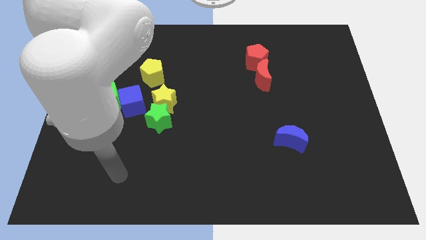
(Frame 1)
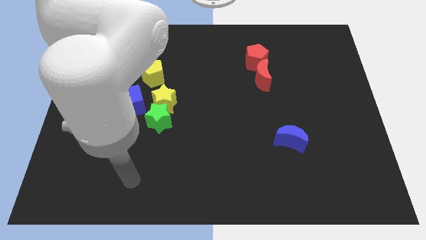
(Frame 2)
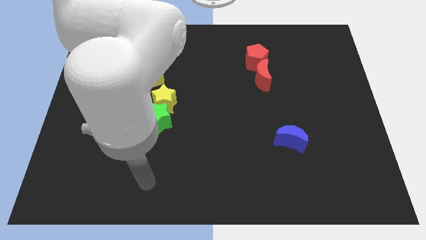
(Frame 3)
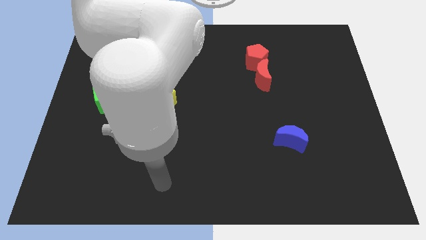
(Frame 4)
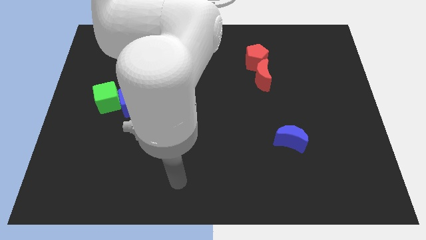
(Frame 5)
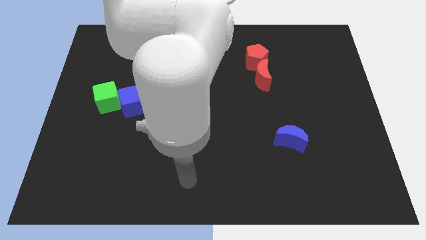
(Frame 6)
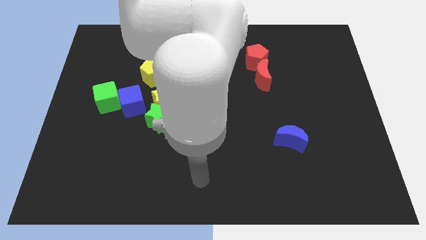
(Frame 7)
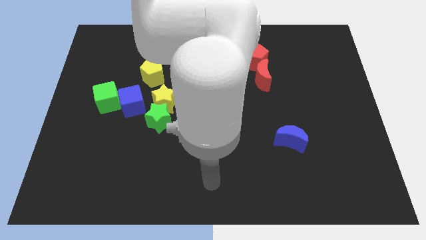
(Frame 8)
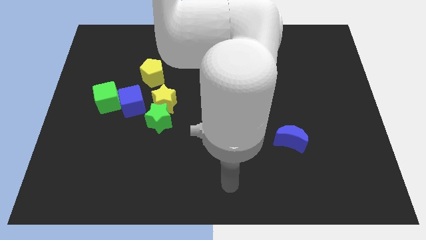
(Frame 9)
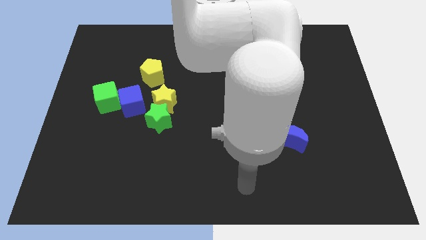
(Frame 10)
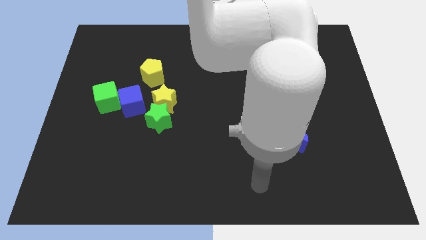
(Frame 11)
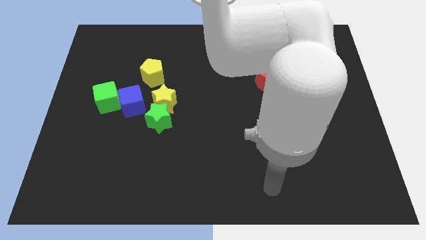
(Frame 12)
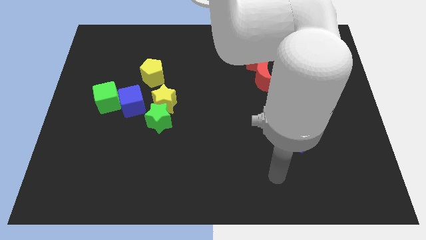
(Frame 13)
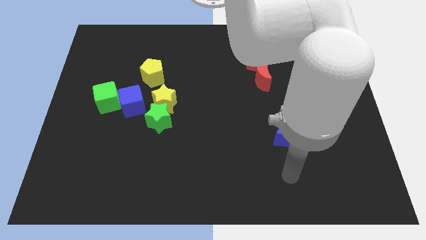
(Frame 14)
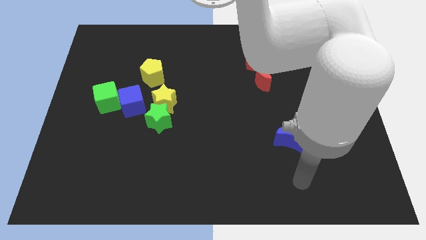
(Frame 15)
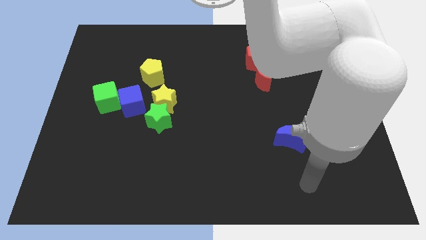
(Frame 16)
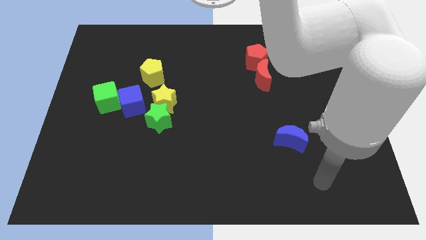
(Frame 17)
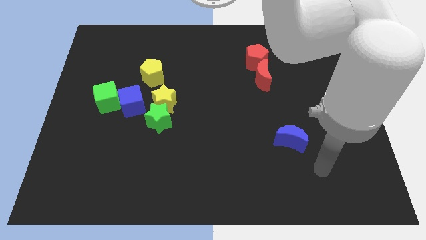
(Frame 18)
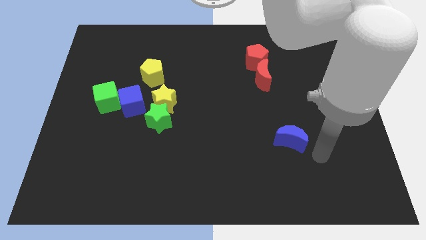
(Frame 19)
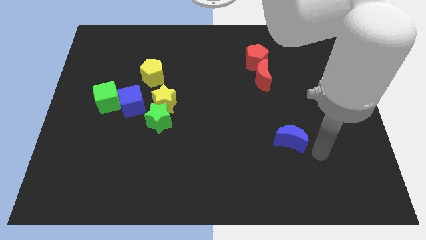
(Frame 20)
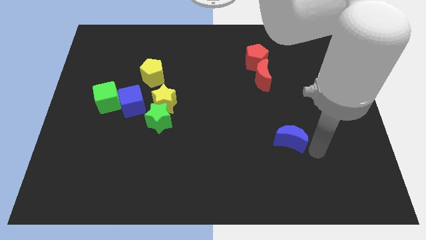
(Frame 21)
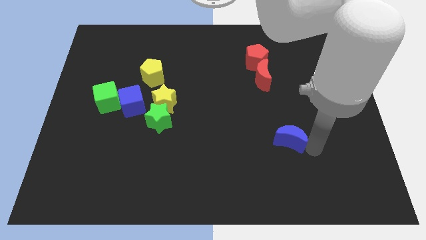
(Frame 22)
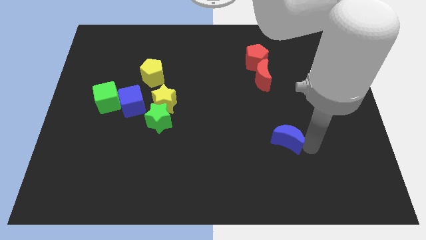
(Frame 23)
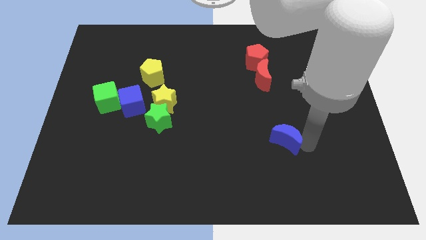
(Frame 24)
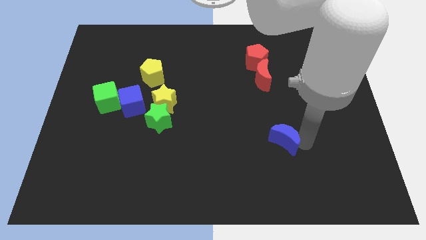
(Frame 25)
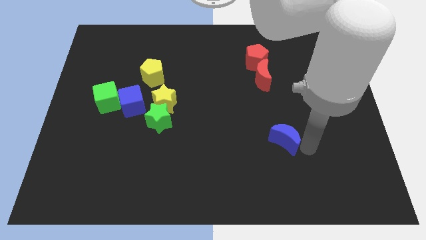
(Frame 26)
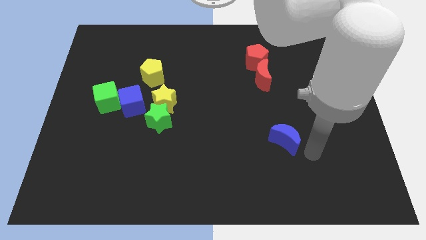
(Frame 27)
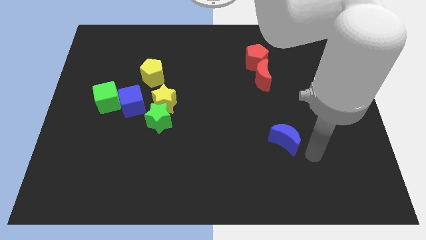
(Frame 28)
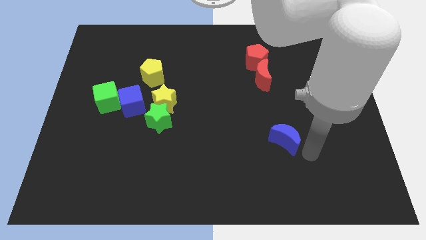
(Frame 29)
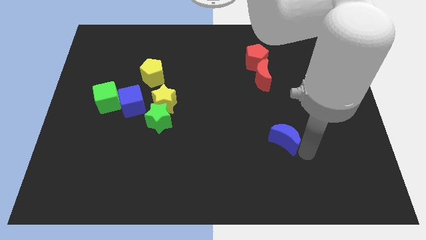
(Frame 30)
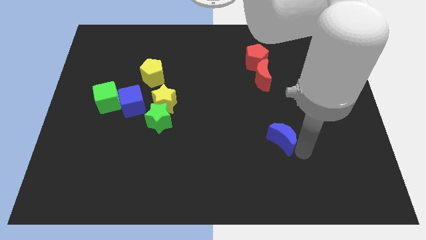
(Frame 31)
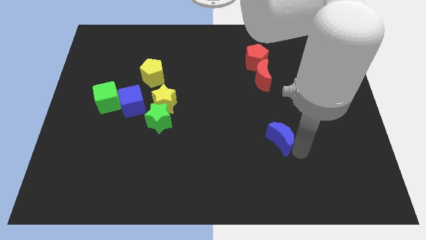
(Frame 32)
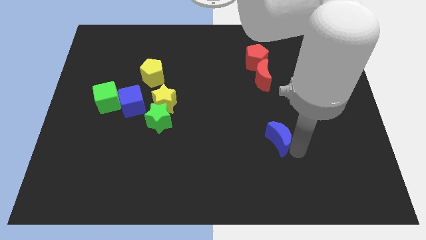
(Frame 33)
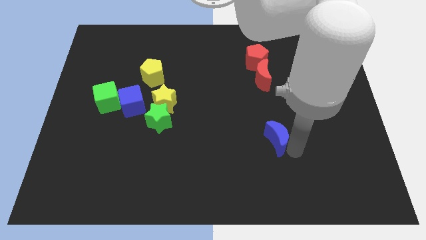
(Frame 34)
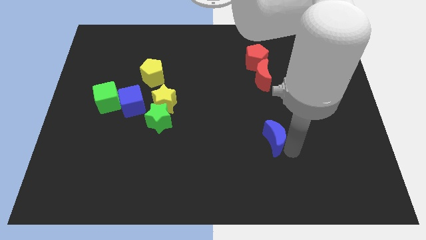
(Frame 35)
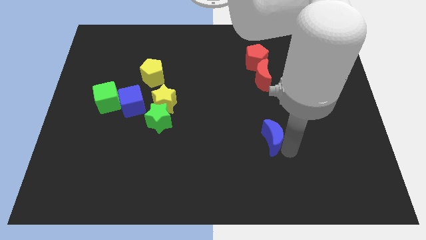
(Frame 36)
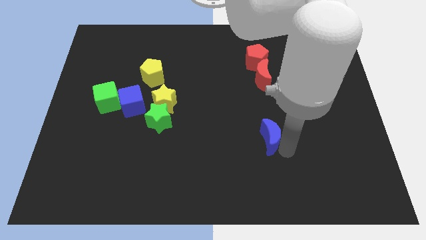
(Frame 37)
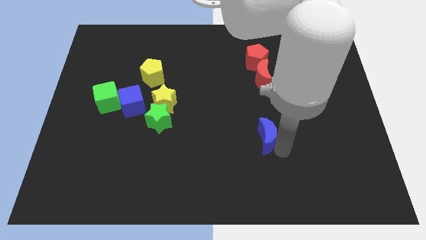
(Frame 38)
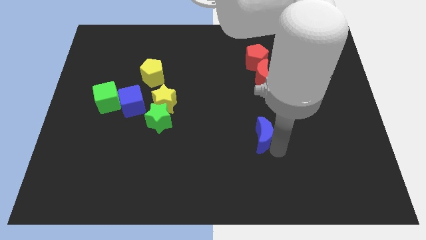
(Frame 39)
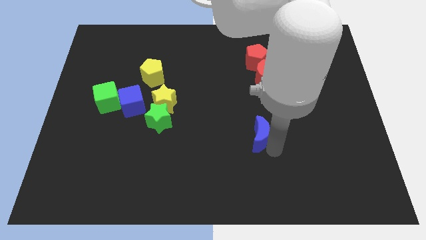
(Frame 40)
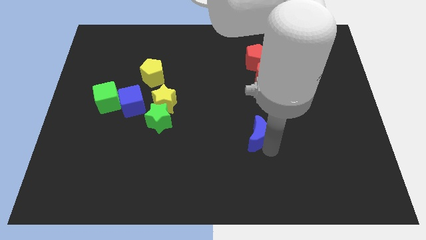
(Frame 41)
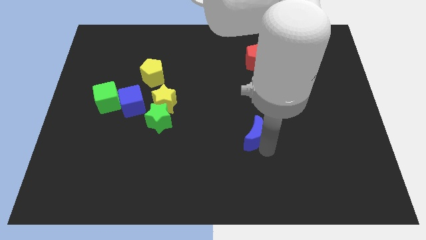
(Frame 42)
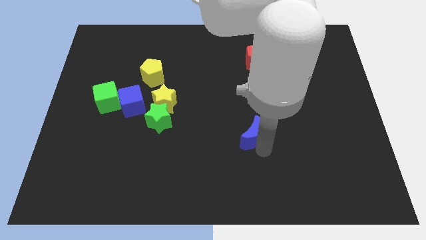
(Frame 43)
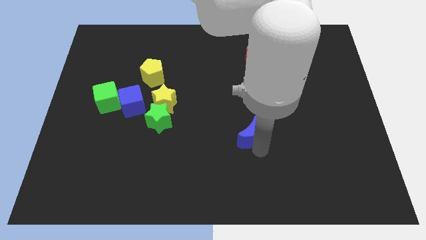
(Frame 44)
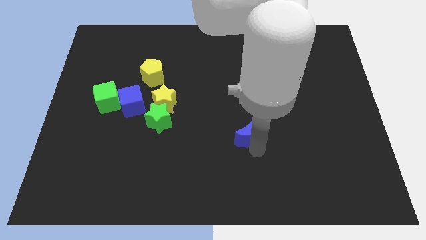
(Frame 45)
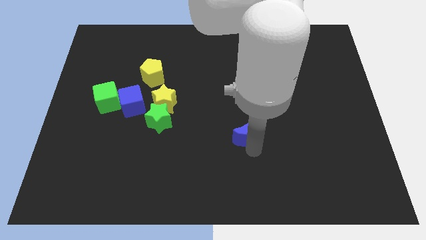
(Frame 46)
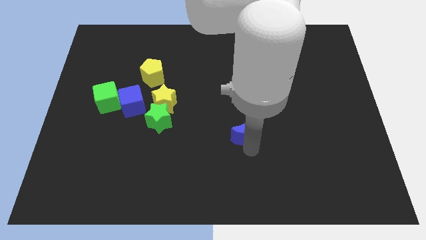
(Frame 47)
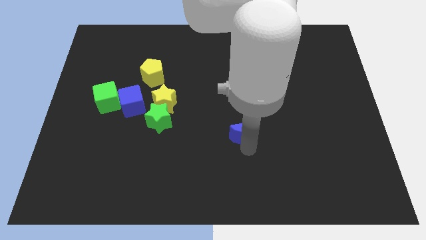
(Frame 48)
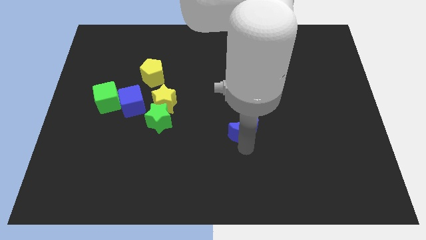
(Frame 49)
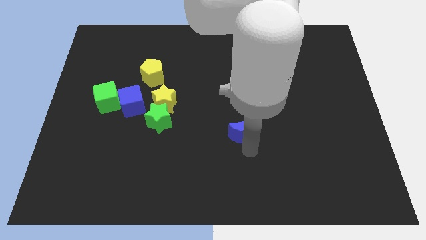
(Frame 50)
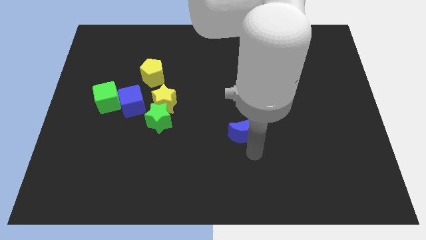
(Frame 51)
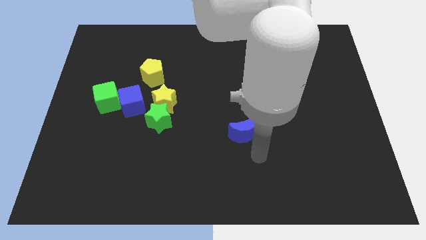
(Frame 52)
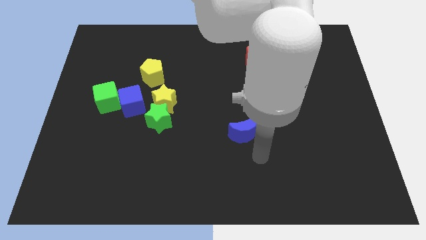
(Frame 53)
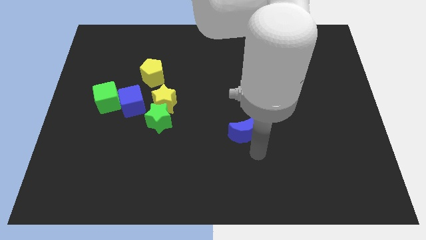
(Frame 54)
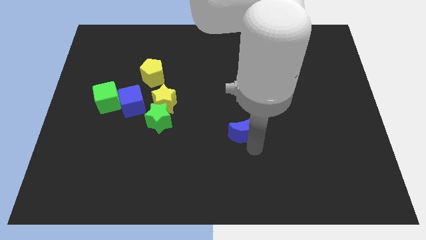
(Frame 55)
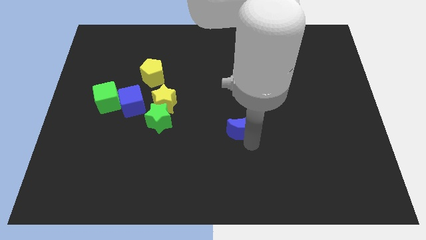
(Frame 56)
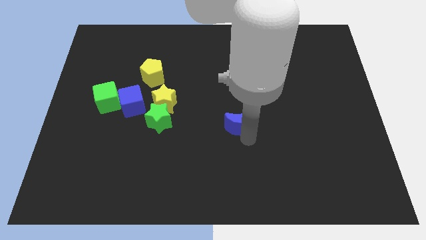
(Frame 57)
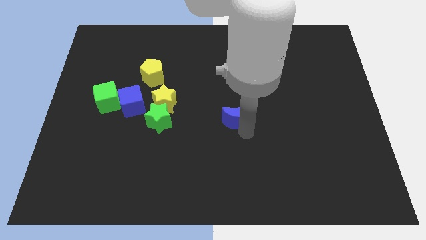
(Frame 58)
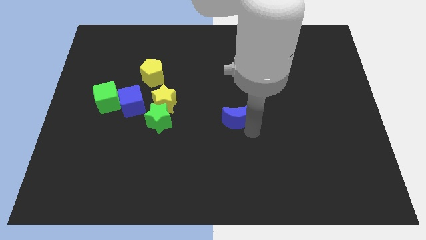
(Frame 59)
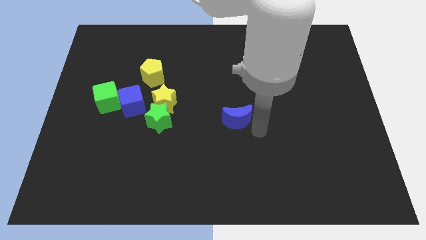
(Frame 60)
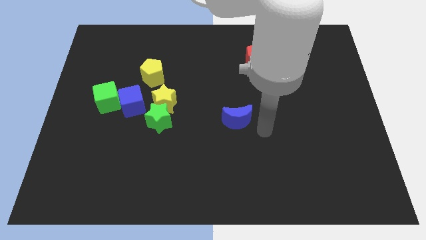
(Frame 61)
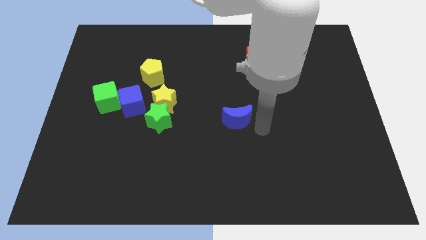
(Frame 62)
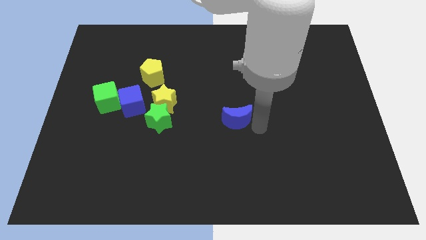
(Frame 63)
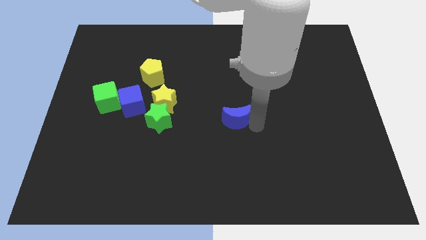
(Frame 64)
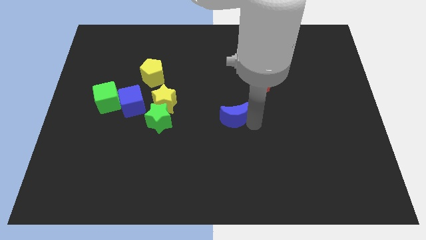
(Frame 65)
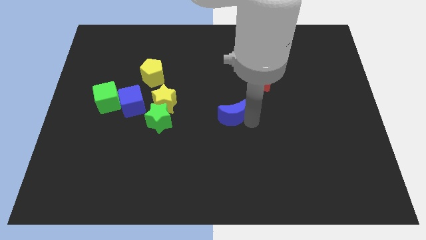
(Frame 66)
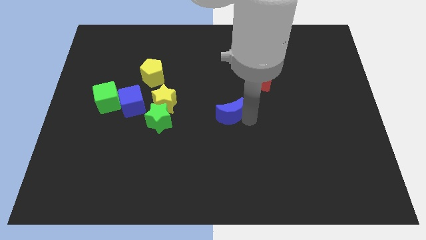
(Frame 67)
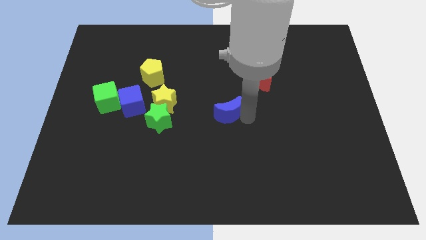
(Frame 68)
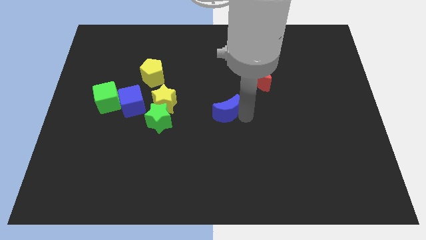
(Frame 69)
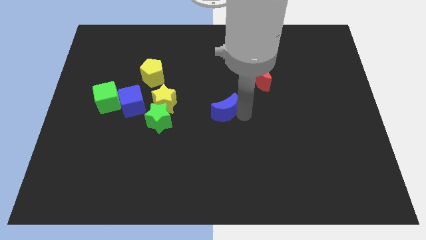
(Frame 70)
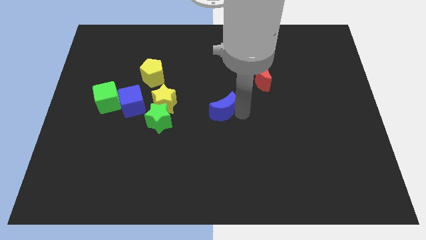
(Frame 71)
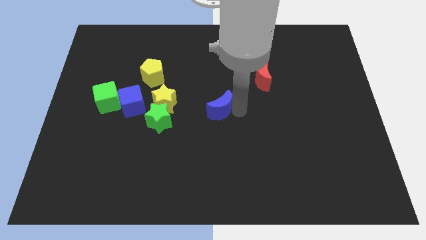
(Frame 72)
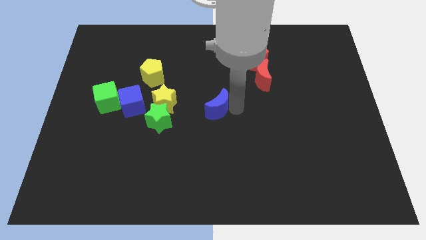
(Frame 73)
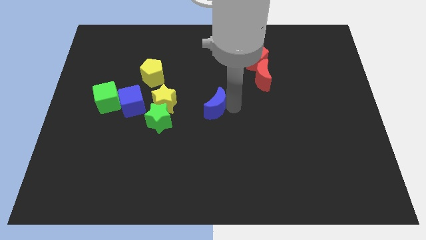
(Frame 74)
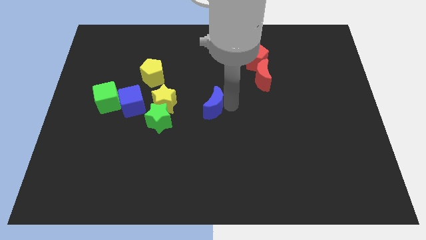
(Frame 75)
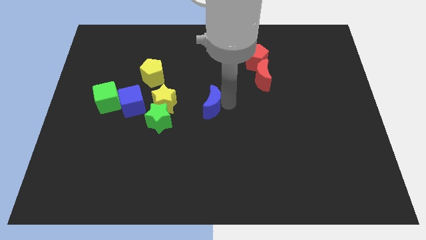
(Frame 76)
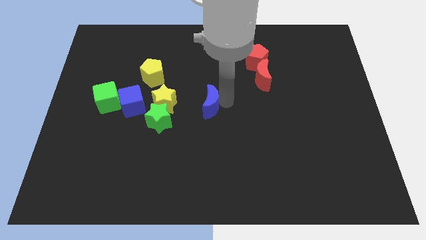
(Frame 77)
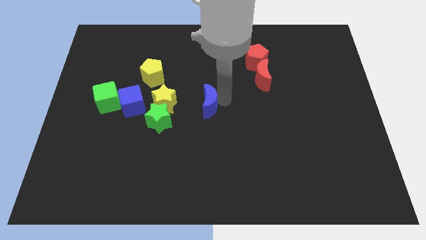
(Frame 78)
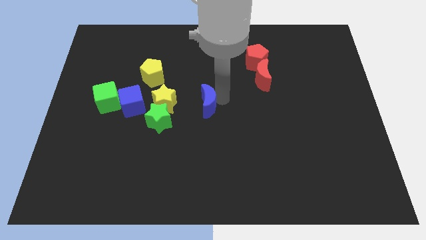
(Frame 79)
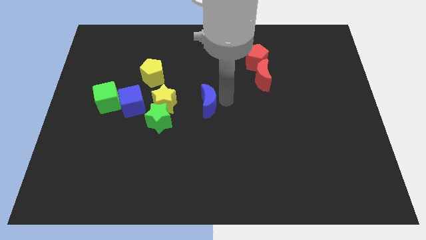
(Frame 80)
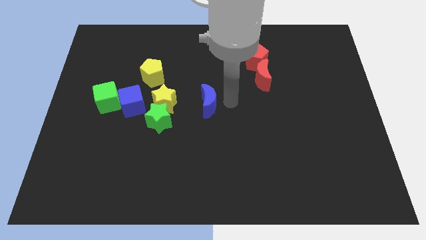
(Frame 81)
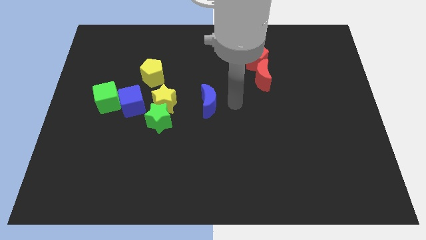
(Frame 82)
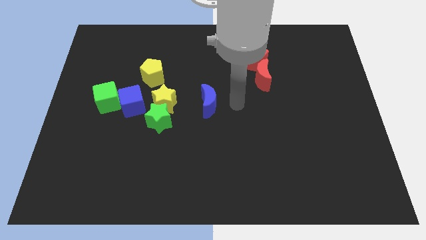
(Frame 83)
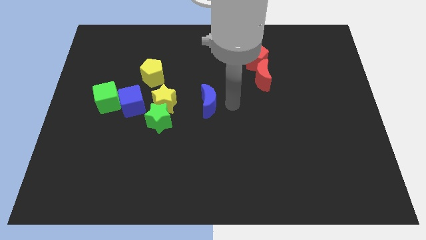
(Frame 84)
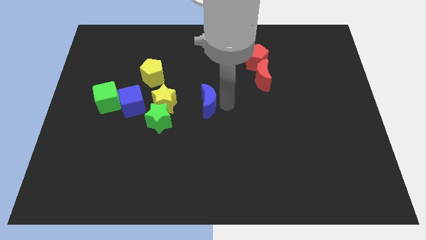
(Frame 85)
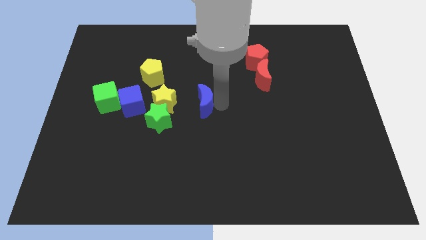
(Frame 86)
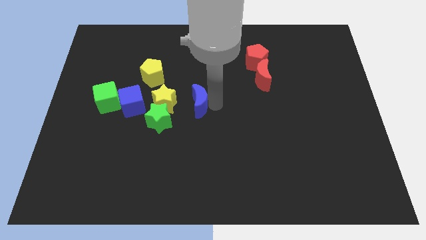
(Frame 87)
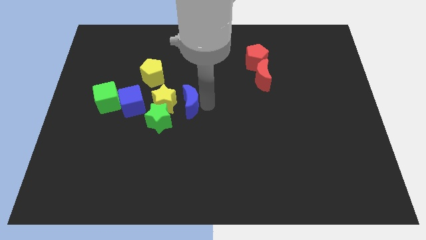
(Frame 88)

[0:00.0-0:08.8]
slide the blue moon to the yellow star
